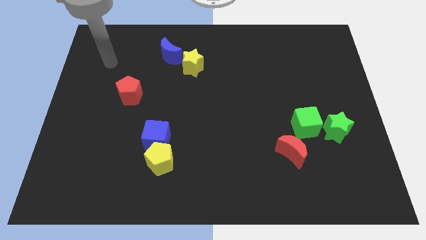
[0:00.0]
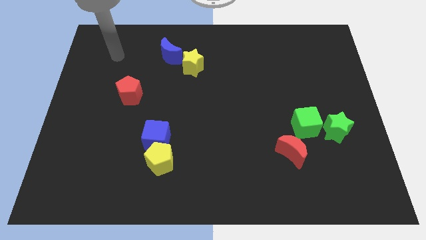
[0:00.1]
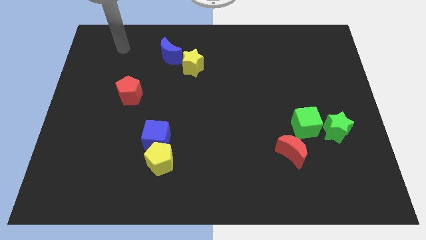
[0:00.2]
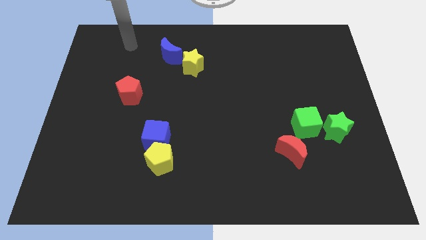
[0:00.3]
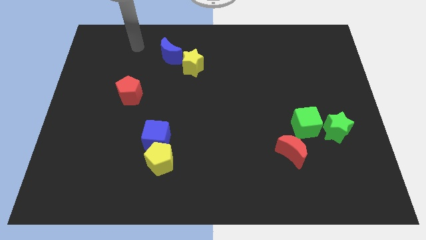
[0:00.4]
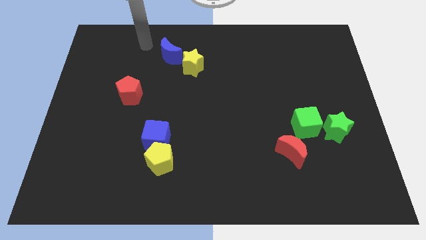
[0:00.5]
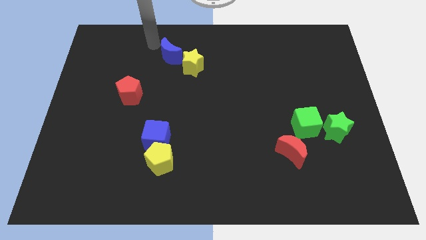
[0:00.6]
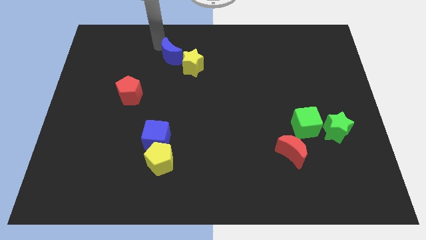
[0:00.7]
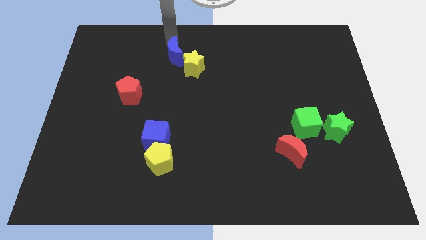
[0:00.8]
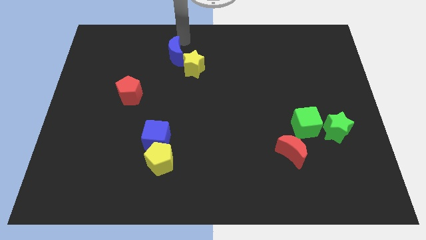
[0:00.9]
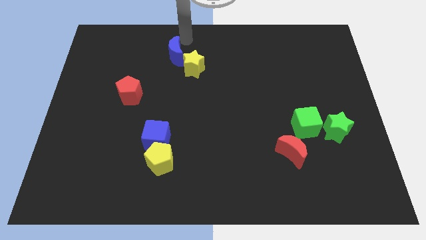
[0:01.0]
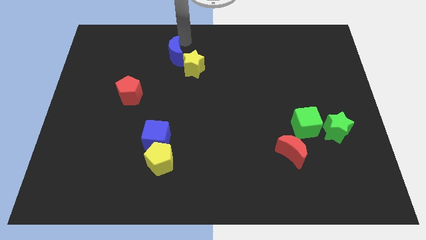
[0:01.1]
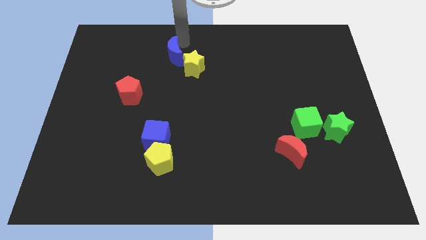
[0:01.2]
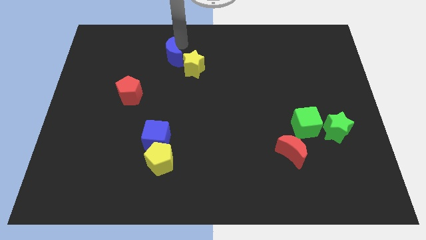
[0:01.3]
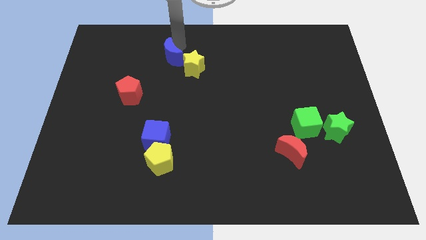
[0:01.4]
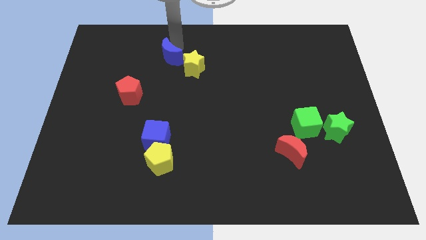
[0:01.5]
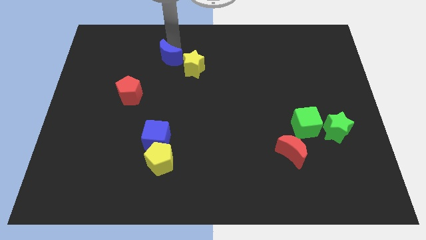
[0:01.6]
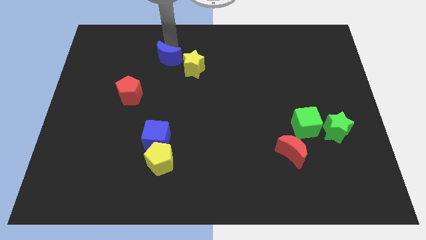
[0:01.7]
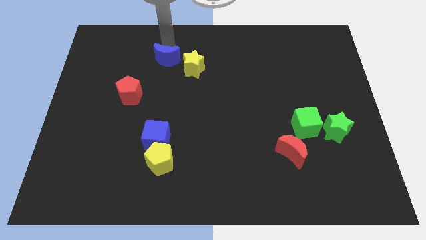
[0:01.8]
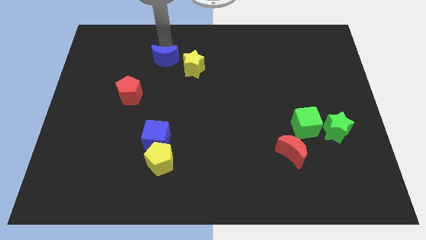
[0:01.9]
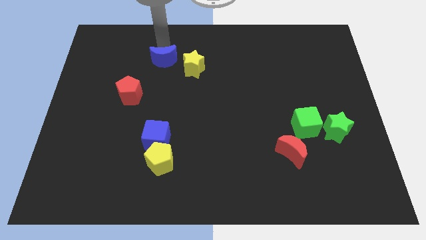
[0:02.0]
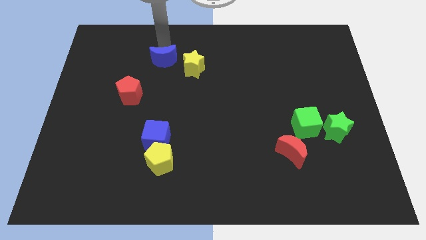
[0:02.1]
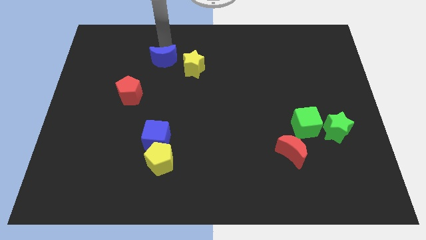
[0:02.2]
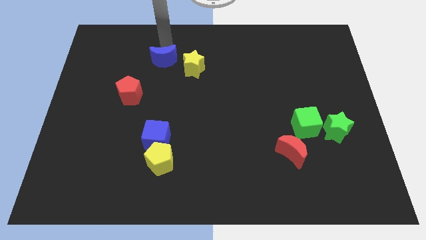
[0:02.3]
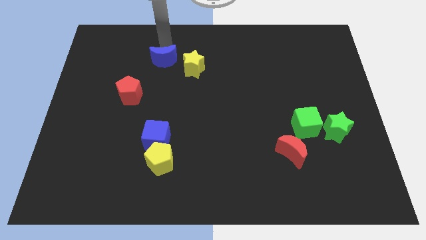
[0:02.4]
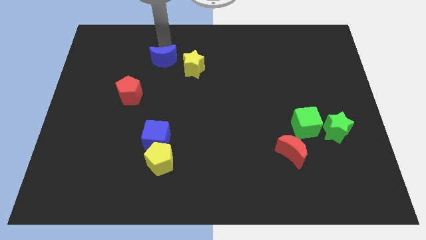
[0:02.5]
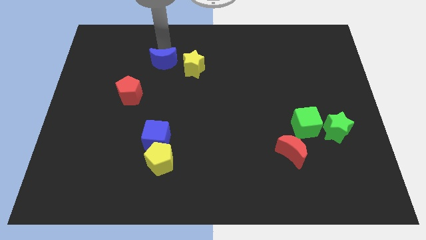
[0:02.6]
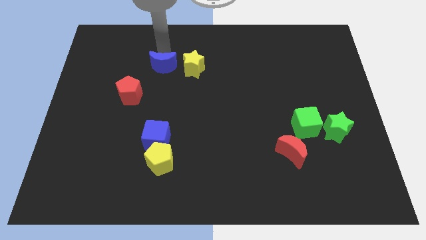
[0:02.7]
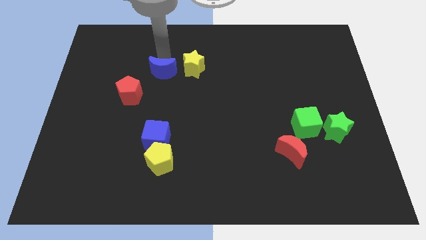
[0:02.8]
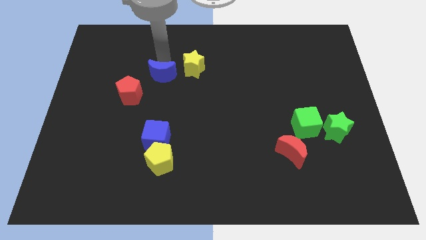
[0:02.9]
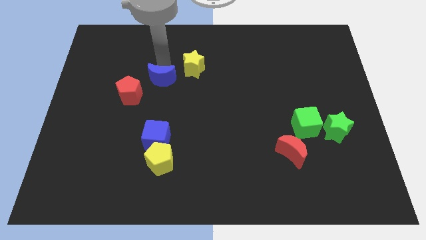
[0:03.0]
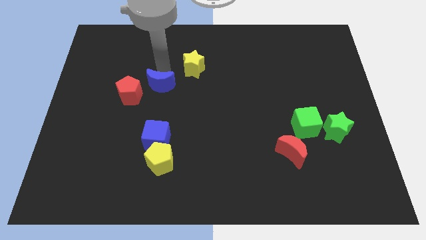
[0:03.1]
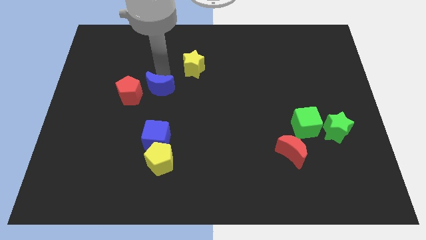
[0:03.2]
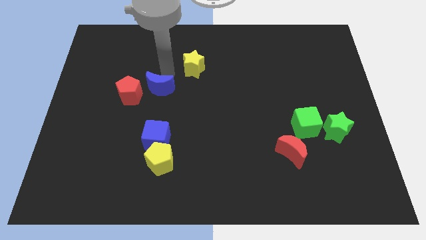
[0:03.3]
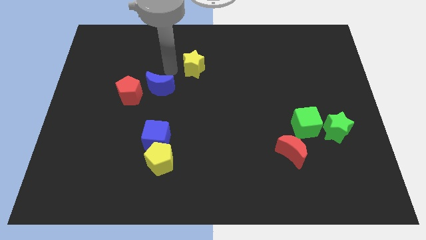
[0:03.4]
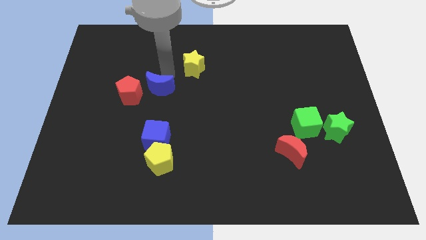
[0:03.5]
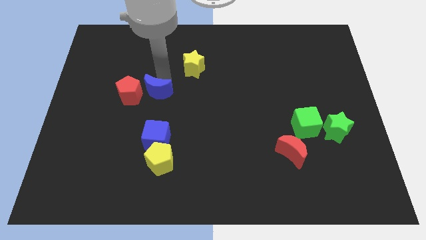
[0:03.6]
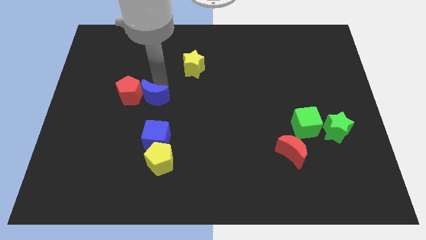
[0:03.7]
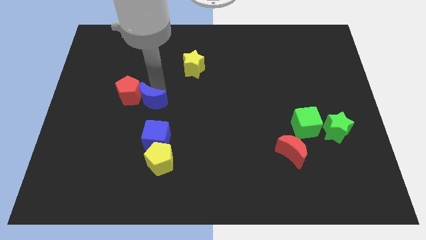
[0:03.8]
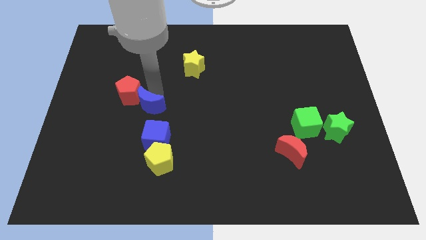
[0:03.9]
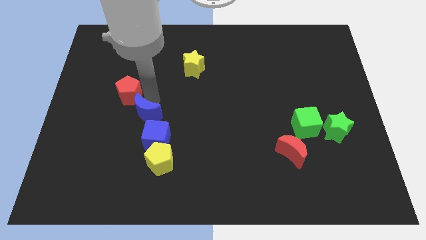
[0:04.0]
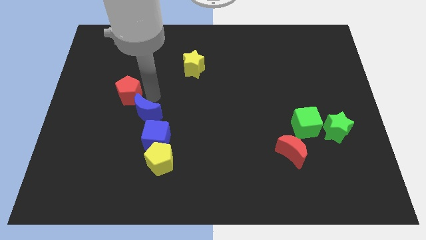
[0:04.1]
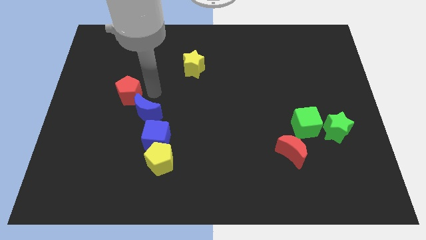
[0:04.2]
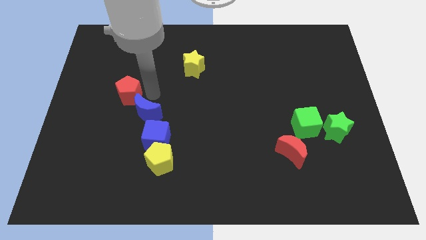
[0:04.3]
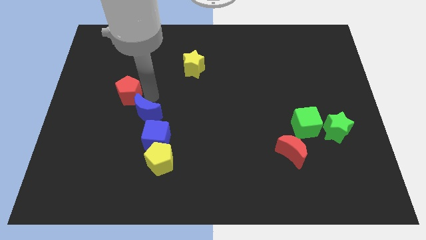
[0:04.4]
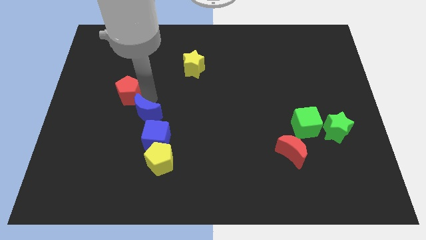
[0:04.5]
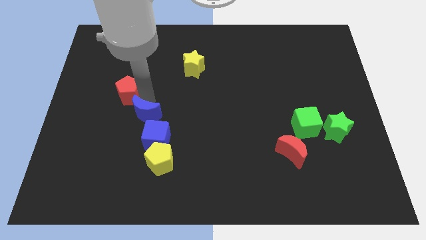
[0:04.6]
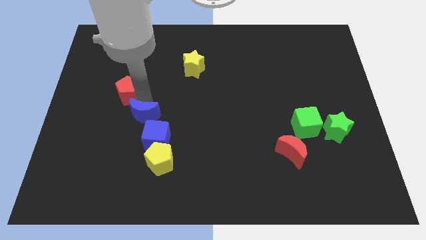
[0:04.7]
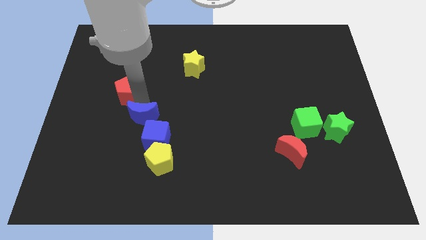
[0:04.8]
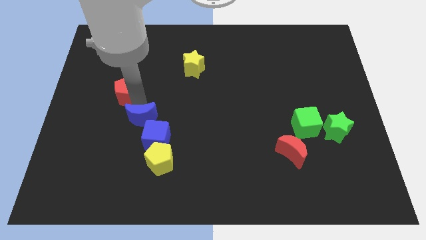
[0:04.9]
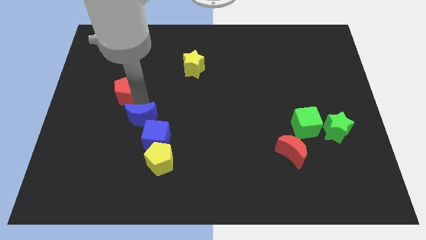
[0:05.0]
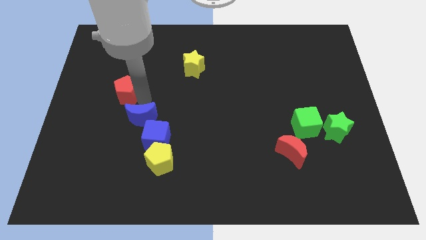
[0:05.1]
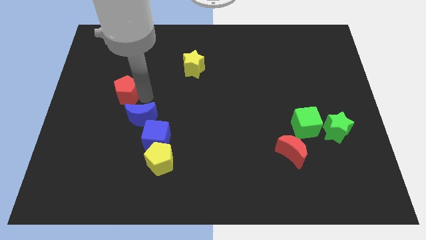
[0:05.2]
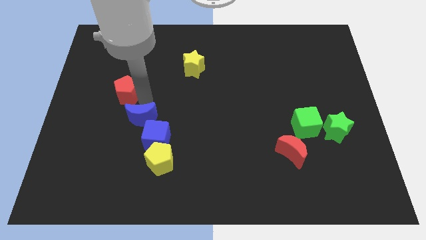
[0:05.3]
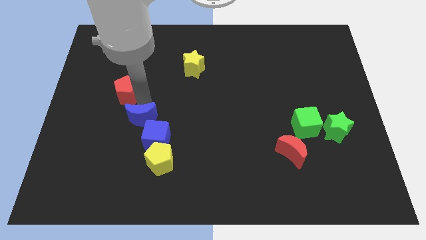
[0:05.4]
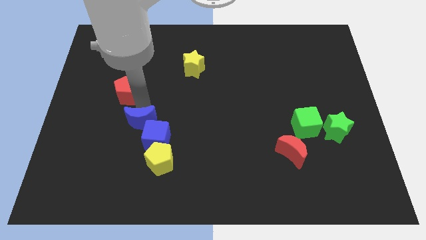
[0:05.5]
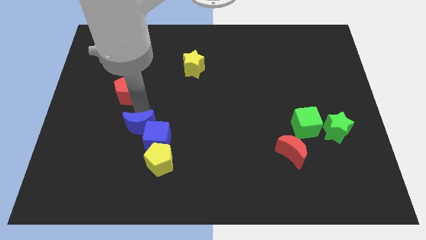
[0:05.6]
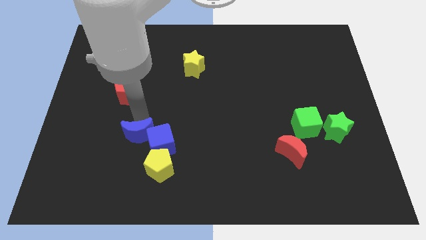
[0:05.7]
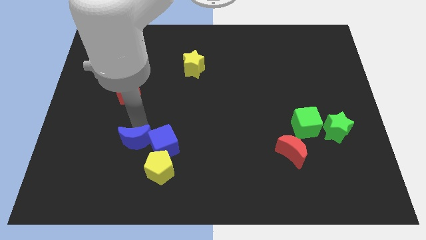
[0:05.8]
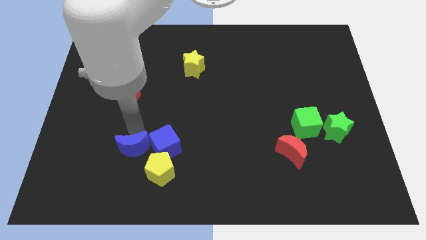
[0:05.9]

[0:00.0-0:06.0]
push the blue moon diagonally down and to the left of the blue cube
